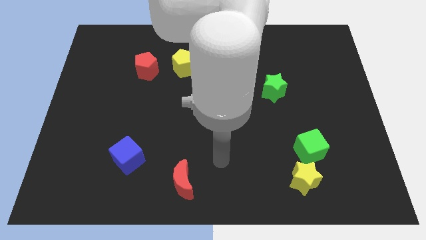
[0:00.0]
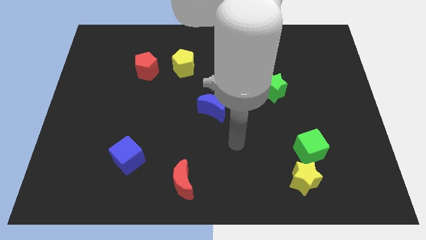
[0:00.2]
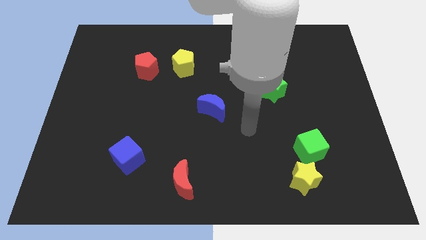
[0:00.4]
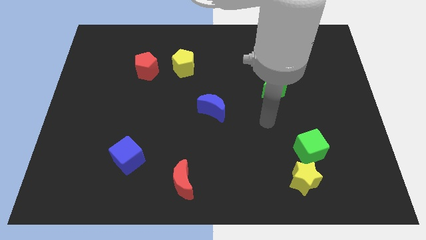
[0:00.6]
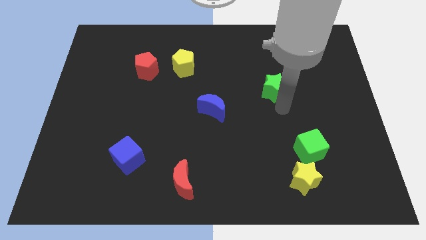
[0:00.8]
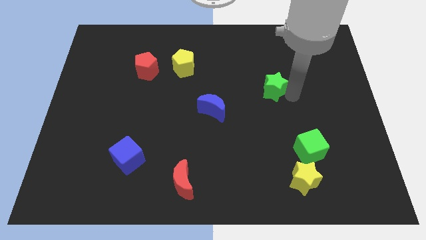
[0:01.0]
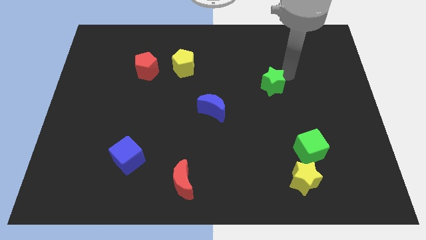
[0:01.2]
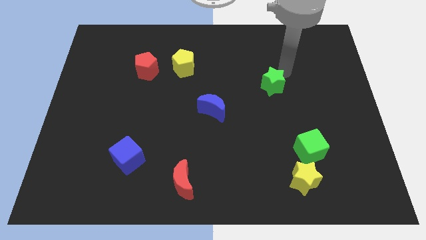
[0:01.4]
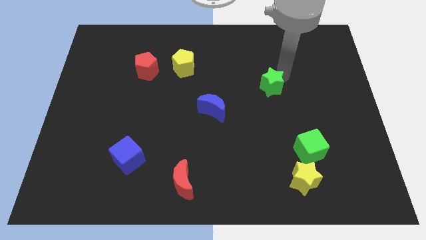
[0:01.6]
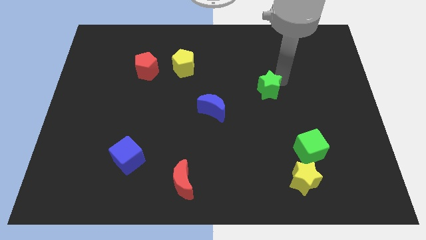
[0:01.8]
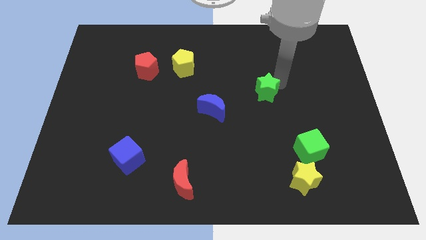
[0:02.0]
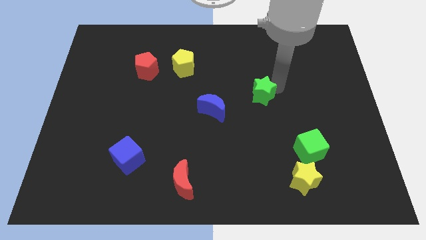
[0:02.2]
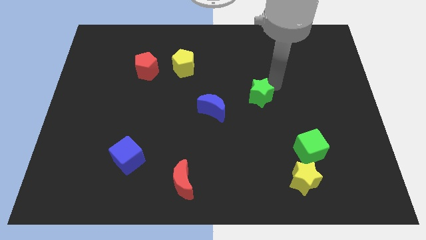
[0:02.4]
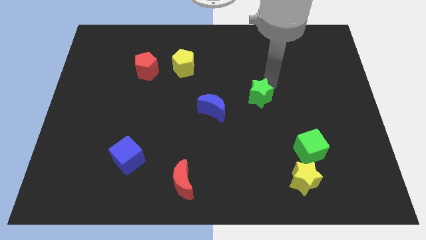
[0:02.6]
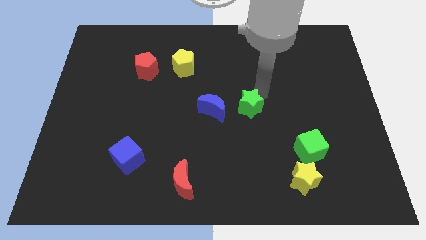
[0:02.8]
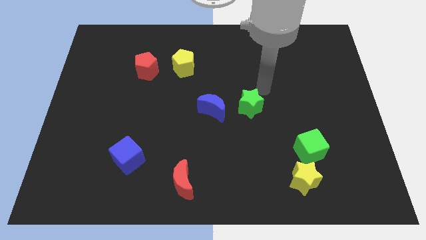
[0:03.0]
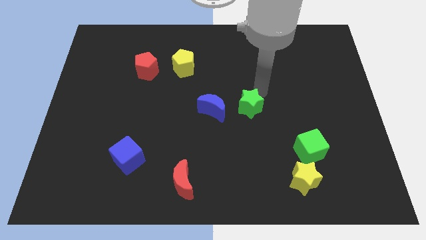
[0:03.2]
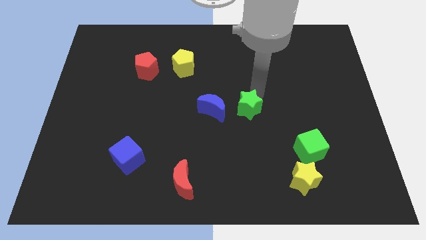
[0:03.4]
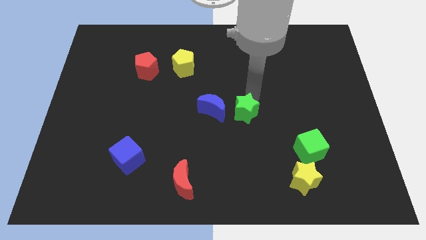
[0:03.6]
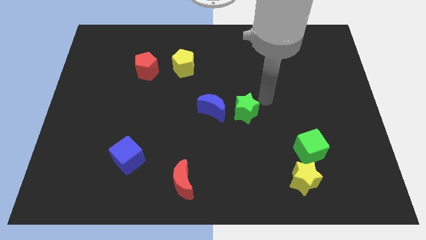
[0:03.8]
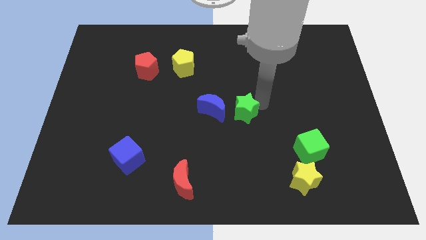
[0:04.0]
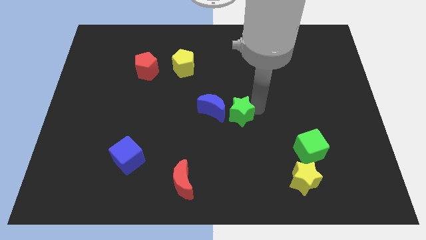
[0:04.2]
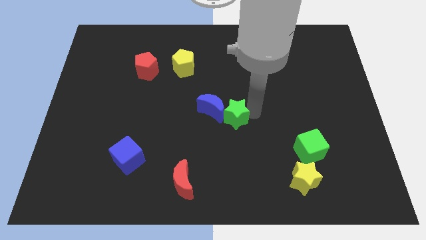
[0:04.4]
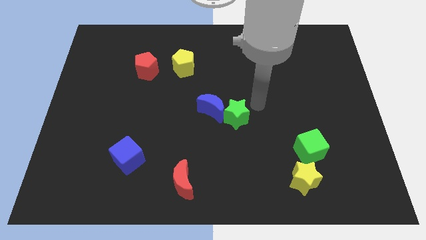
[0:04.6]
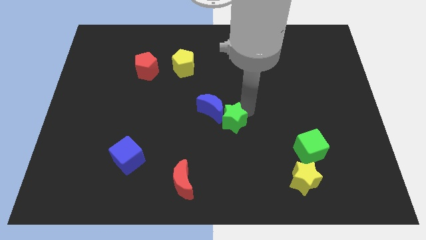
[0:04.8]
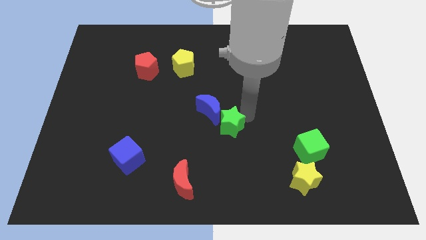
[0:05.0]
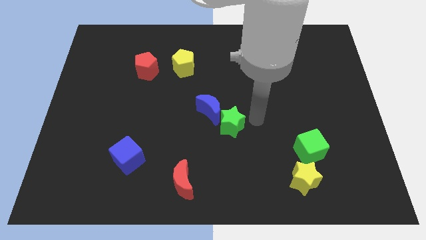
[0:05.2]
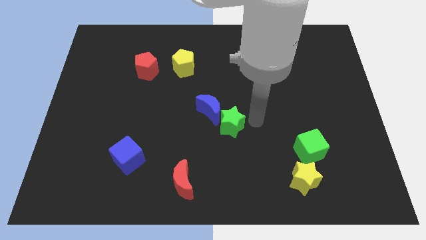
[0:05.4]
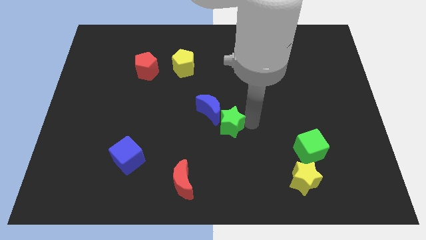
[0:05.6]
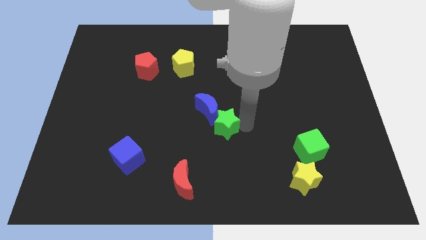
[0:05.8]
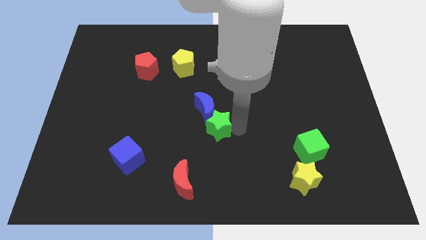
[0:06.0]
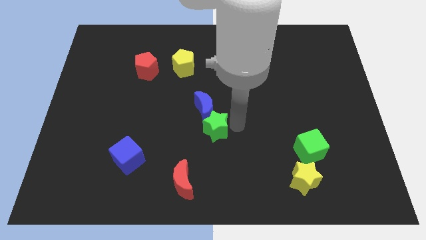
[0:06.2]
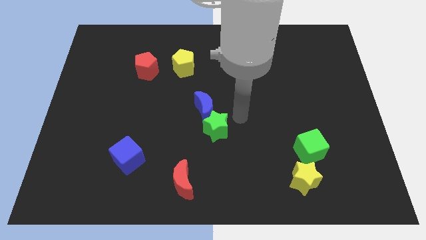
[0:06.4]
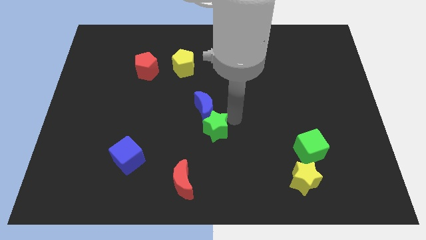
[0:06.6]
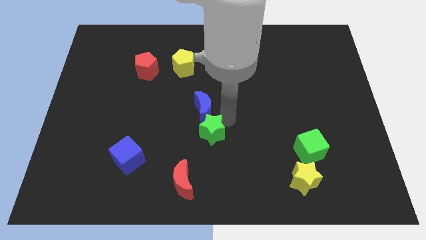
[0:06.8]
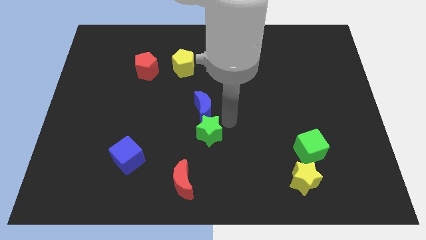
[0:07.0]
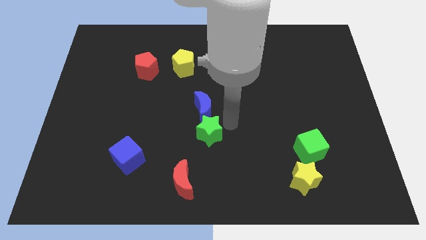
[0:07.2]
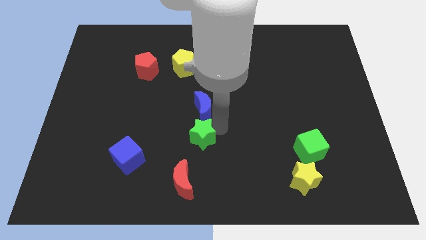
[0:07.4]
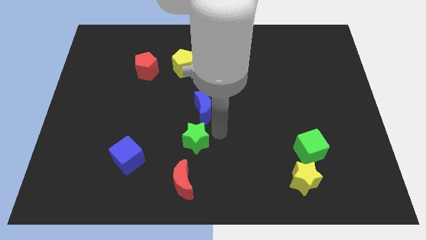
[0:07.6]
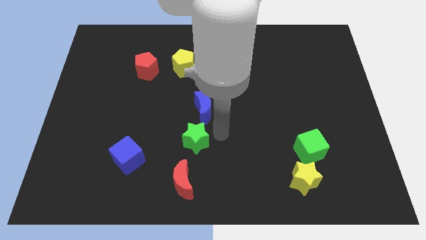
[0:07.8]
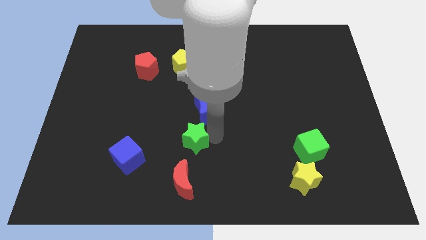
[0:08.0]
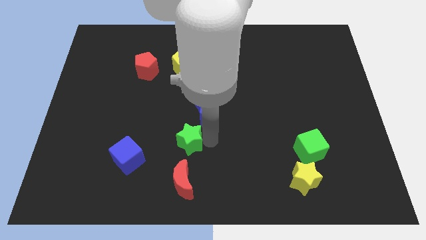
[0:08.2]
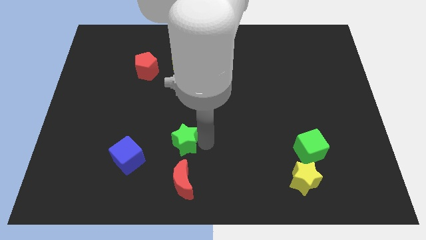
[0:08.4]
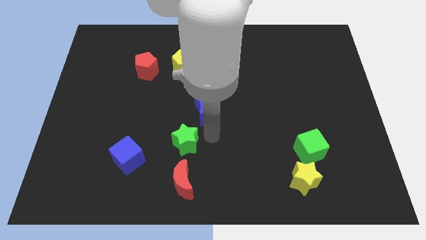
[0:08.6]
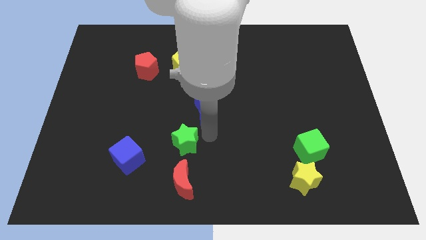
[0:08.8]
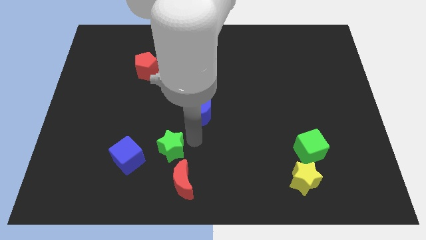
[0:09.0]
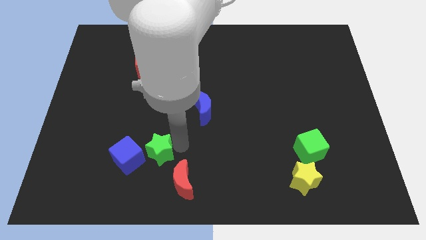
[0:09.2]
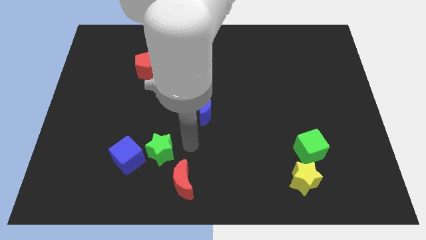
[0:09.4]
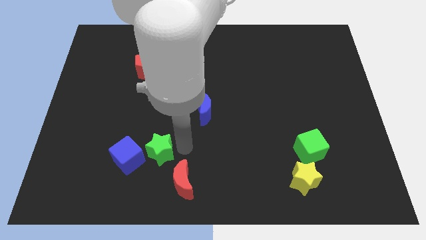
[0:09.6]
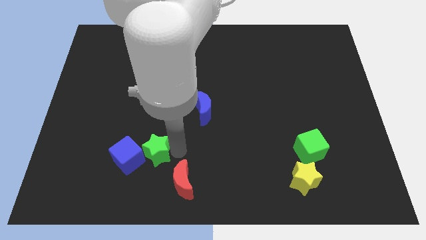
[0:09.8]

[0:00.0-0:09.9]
put the green star next to the blue cube

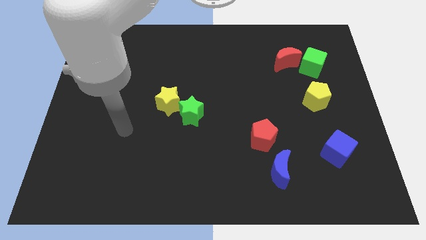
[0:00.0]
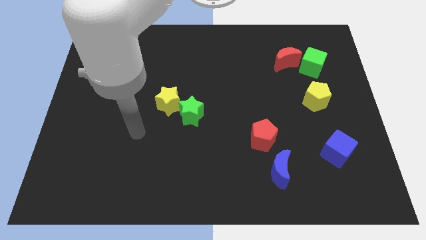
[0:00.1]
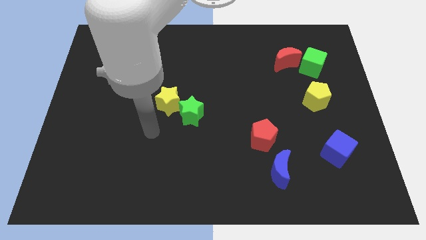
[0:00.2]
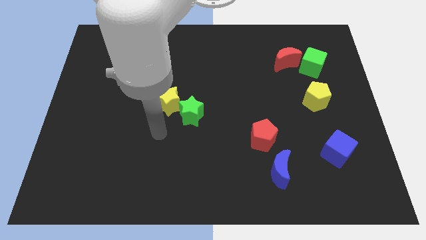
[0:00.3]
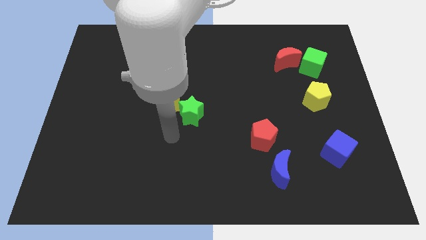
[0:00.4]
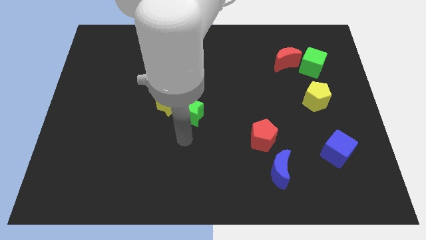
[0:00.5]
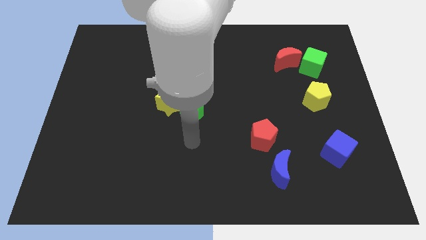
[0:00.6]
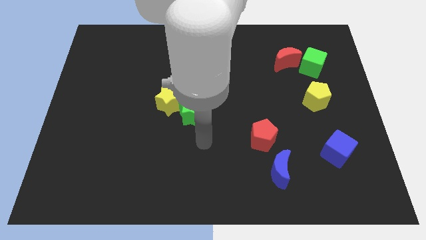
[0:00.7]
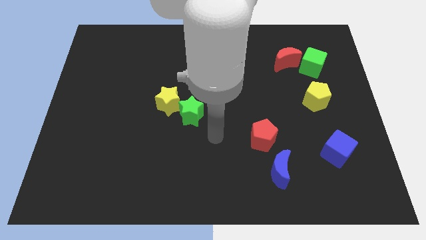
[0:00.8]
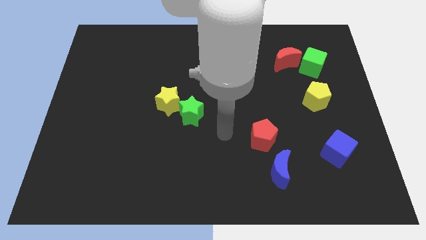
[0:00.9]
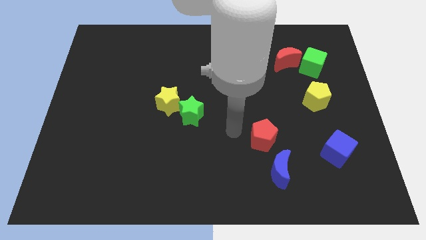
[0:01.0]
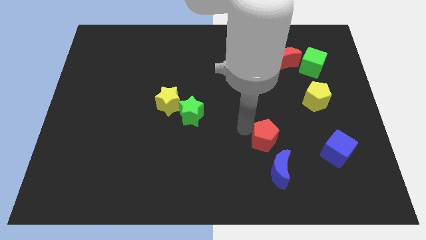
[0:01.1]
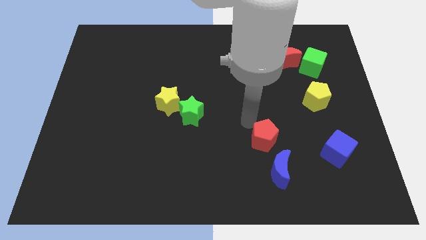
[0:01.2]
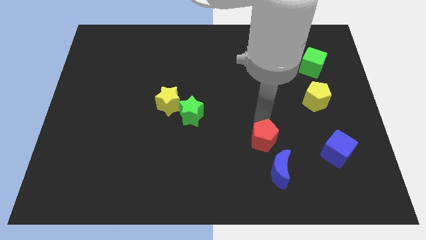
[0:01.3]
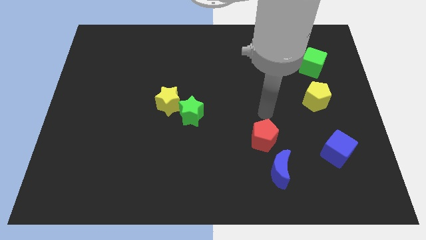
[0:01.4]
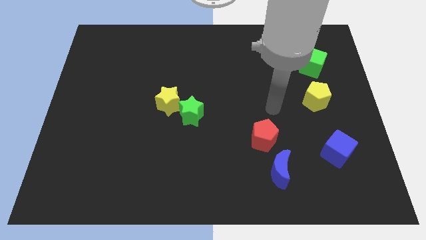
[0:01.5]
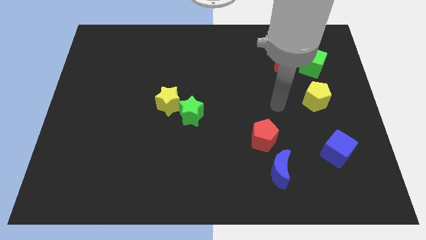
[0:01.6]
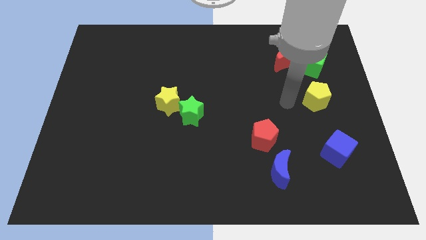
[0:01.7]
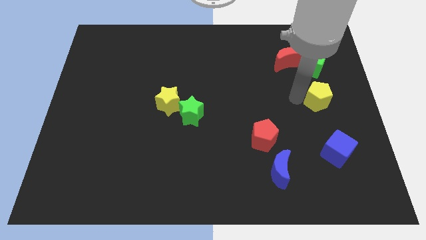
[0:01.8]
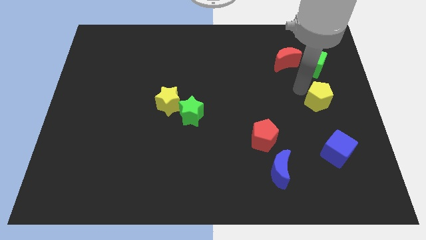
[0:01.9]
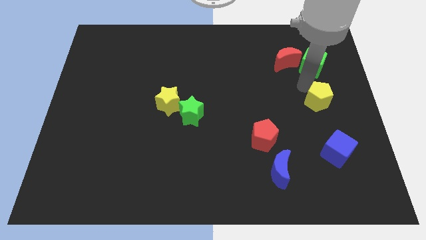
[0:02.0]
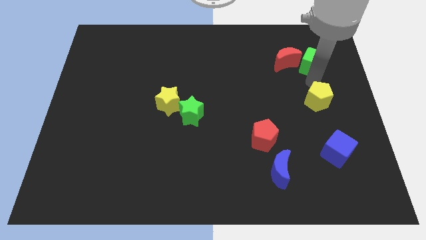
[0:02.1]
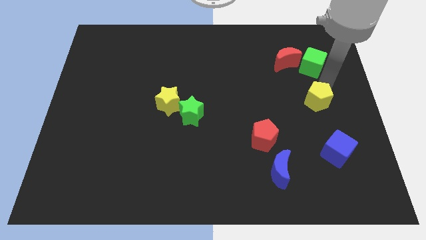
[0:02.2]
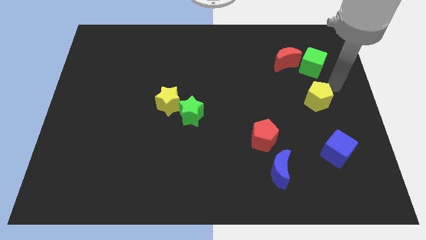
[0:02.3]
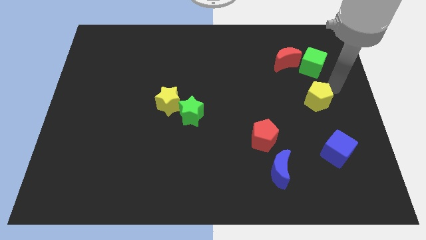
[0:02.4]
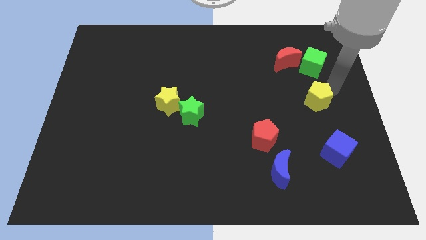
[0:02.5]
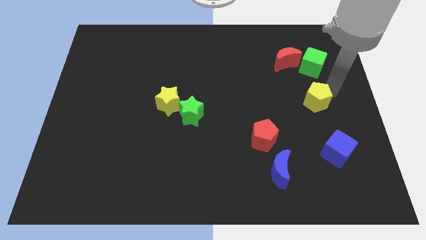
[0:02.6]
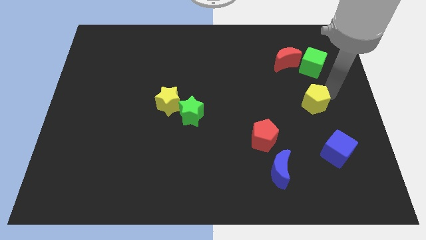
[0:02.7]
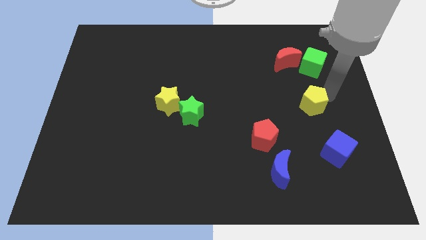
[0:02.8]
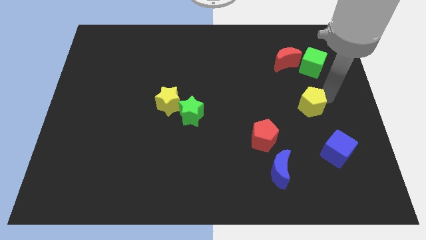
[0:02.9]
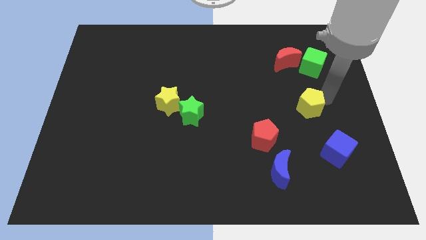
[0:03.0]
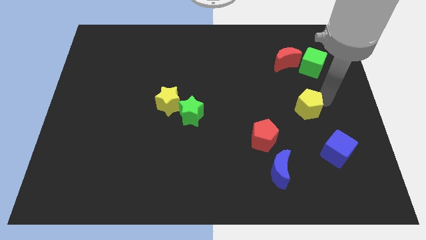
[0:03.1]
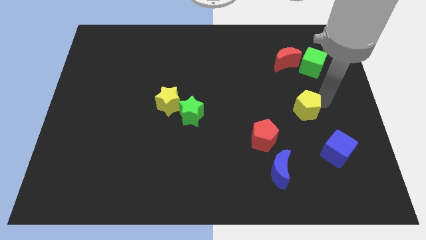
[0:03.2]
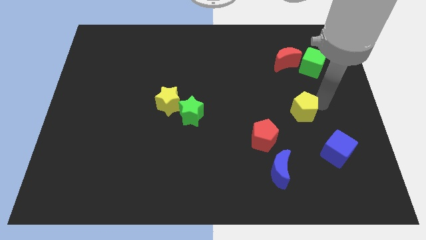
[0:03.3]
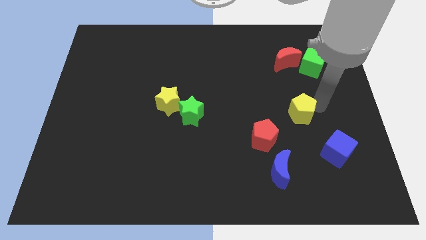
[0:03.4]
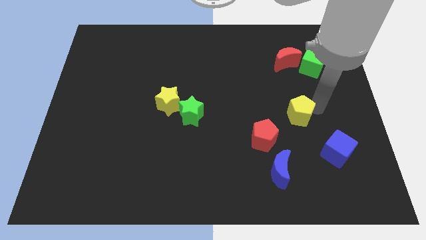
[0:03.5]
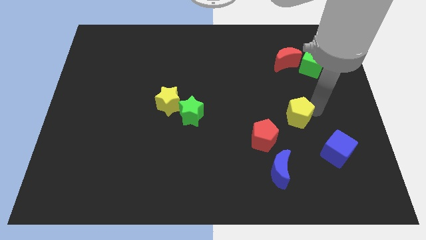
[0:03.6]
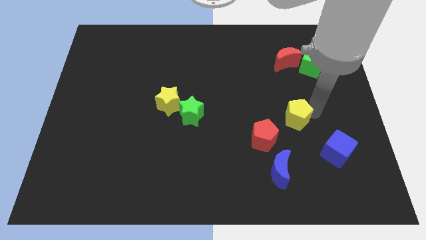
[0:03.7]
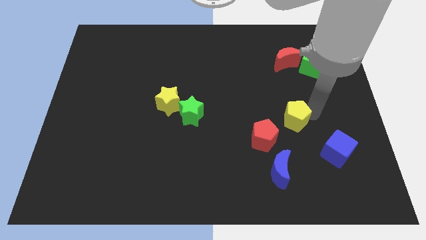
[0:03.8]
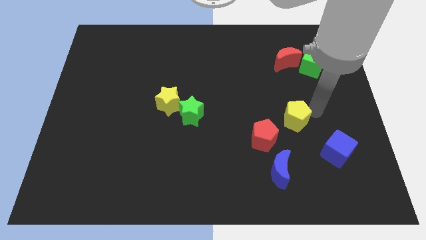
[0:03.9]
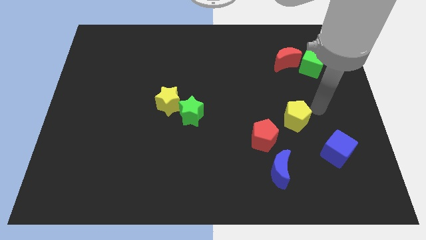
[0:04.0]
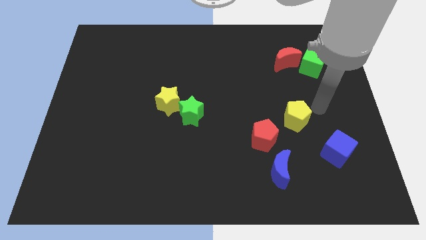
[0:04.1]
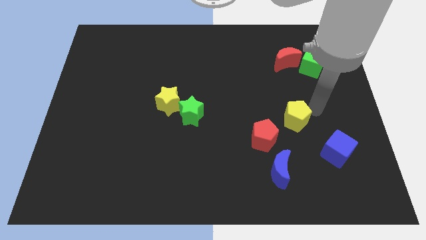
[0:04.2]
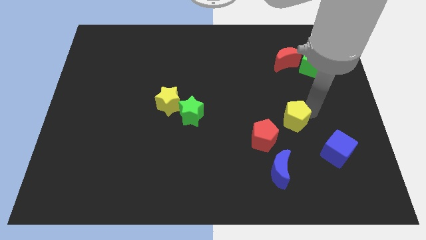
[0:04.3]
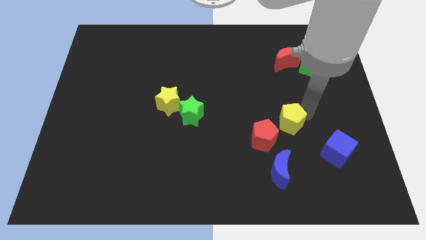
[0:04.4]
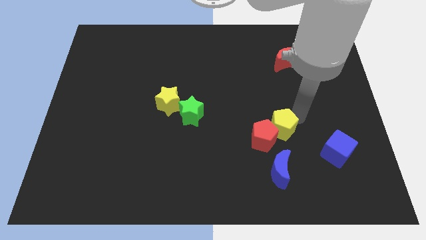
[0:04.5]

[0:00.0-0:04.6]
move the yellow pentagon to the red pentagon
